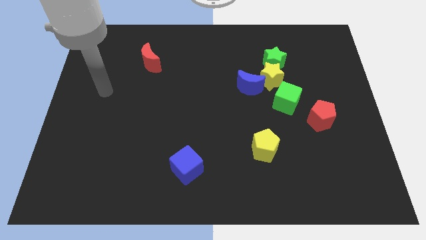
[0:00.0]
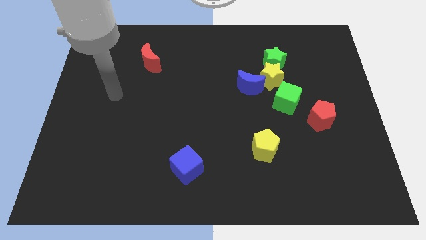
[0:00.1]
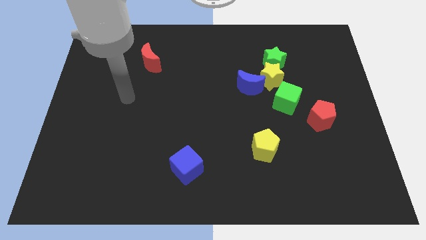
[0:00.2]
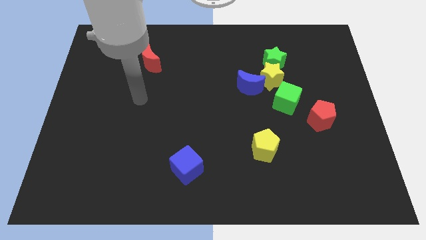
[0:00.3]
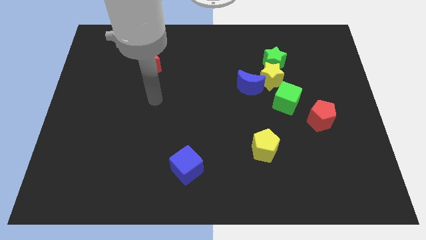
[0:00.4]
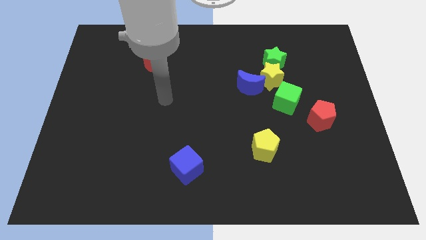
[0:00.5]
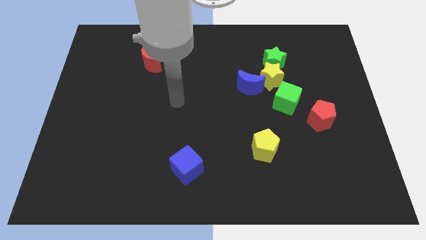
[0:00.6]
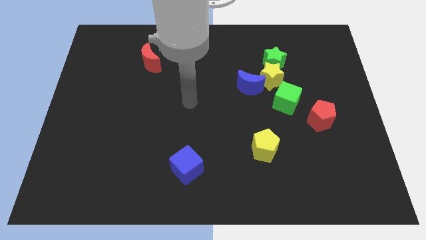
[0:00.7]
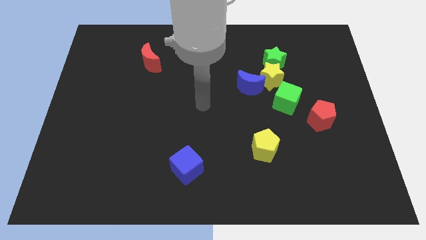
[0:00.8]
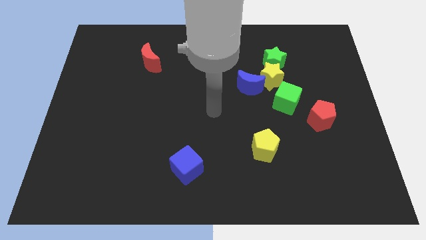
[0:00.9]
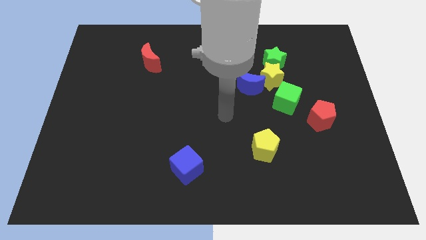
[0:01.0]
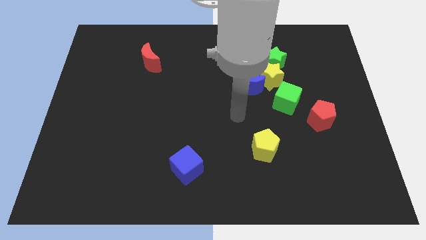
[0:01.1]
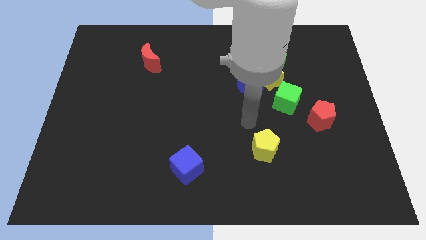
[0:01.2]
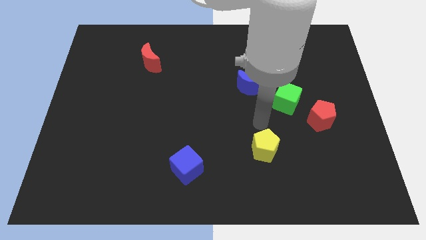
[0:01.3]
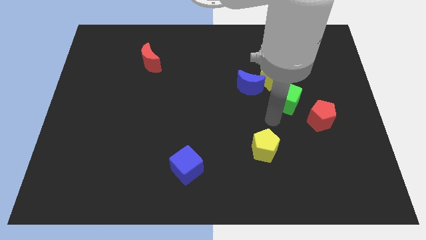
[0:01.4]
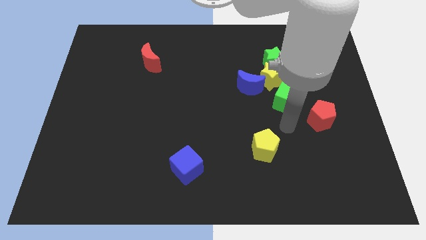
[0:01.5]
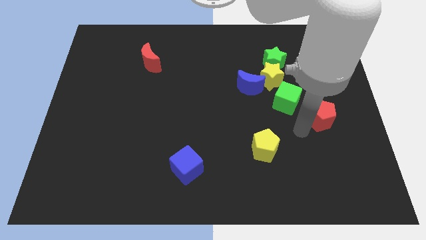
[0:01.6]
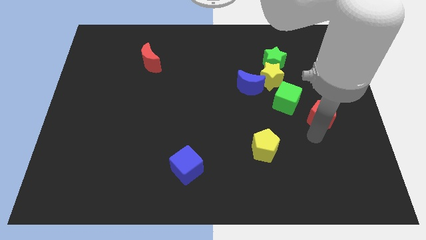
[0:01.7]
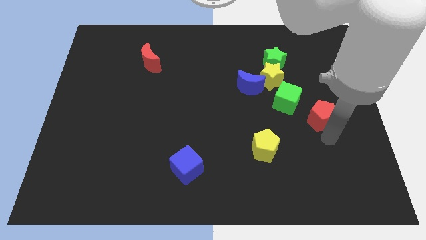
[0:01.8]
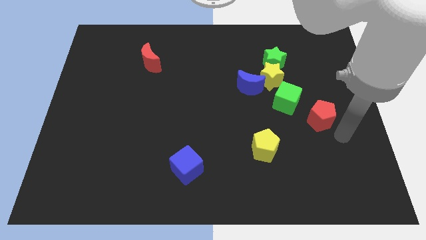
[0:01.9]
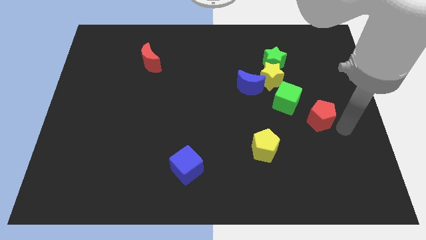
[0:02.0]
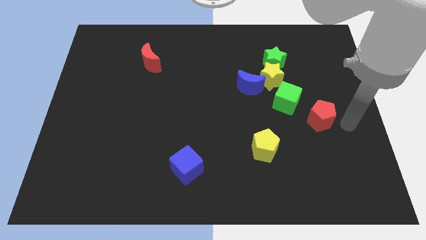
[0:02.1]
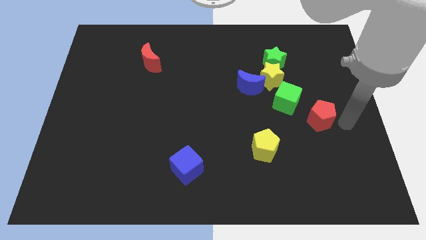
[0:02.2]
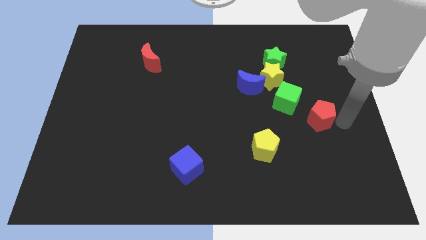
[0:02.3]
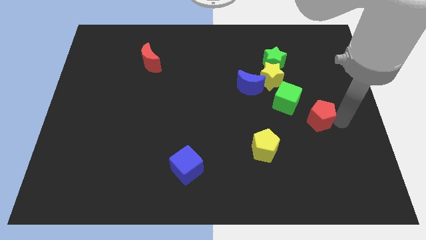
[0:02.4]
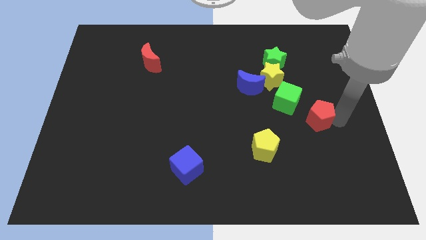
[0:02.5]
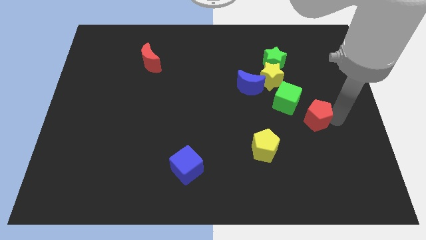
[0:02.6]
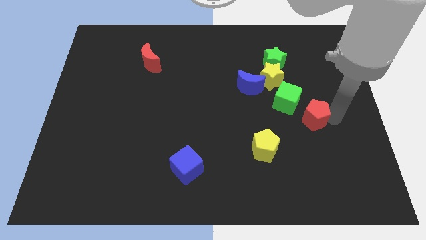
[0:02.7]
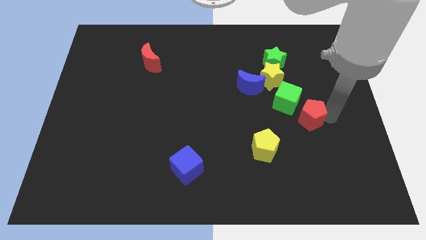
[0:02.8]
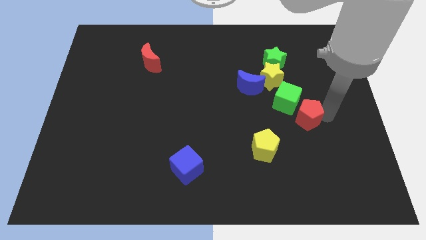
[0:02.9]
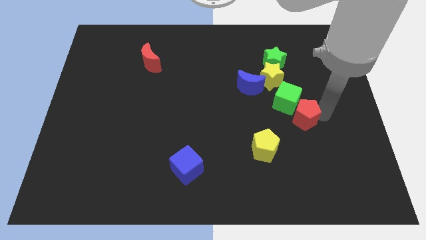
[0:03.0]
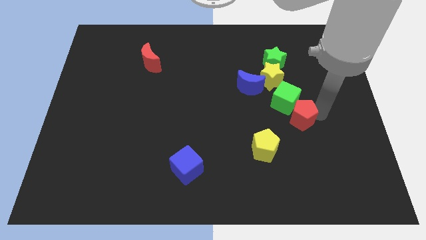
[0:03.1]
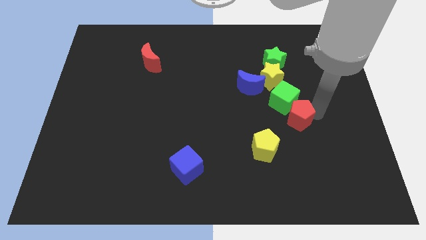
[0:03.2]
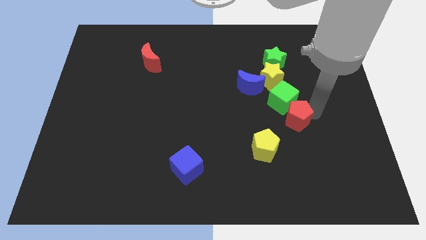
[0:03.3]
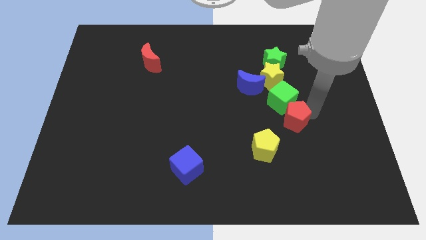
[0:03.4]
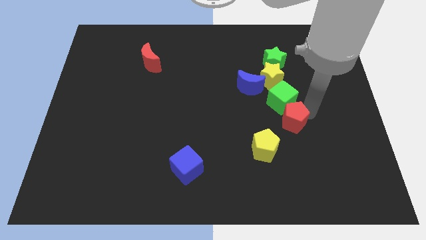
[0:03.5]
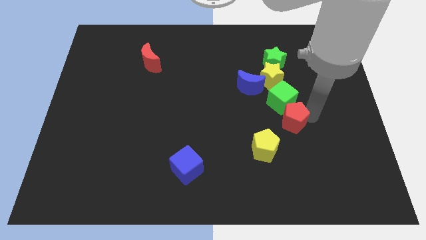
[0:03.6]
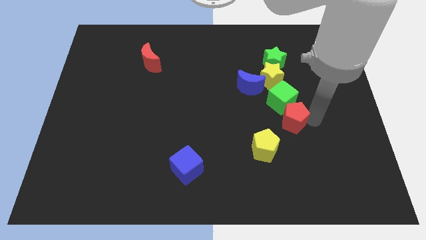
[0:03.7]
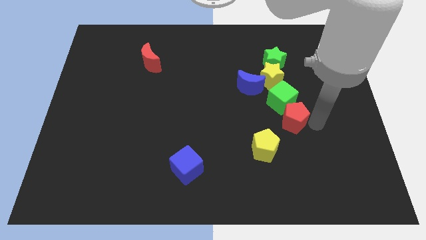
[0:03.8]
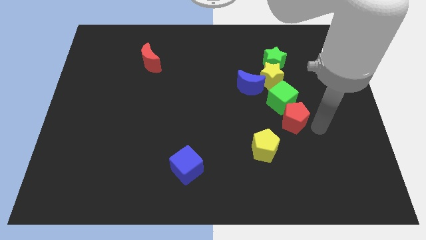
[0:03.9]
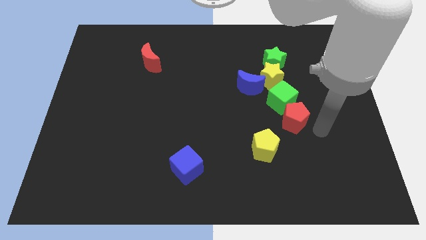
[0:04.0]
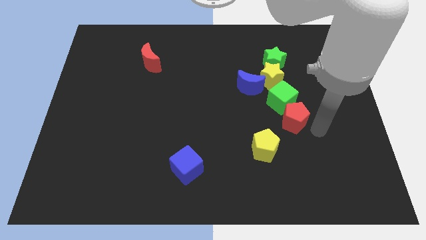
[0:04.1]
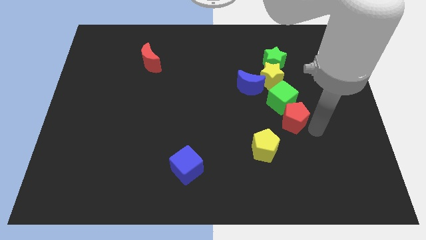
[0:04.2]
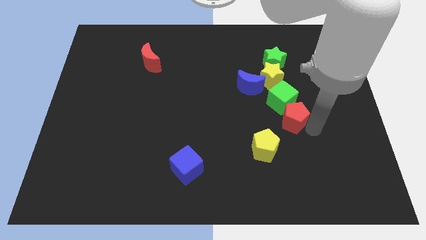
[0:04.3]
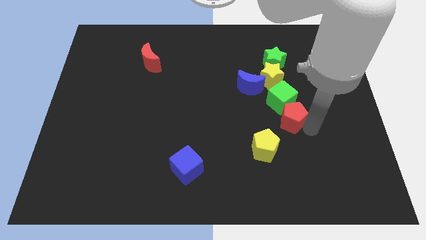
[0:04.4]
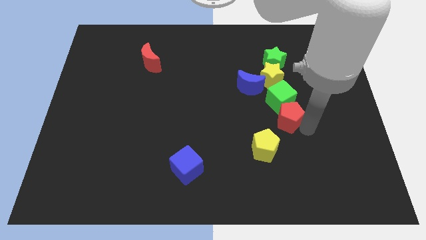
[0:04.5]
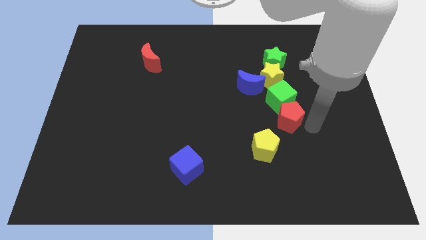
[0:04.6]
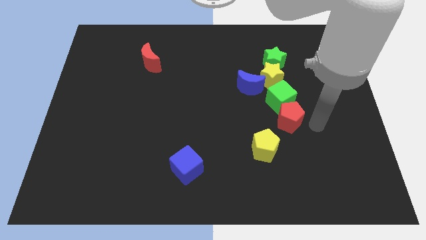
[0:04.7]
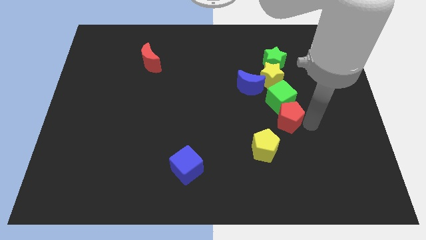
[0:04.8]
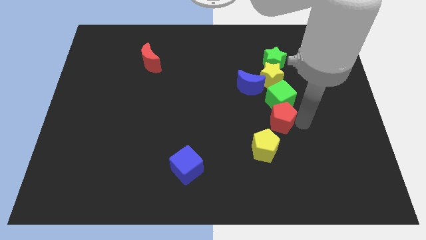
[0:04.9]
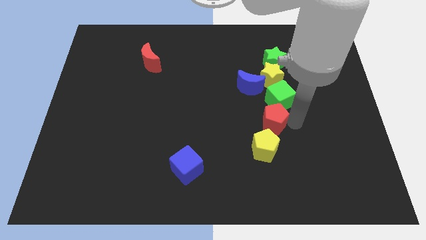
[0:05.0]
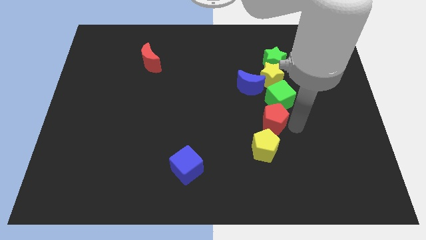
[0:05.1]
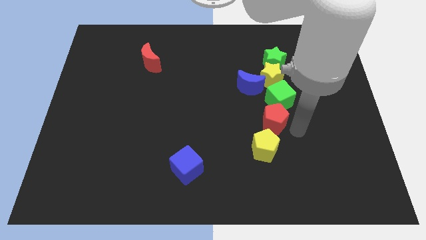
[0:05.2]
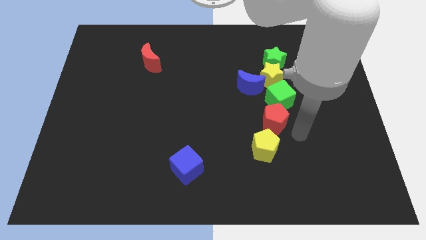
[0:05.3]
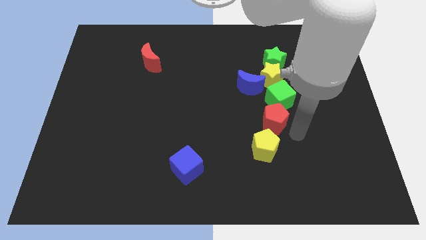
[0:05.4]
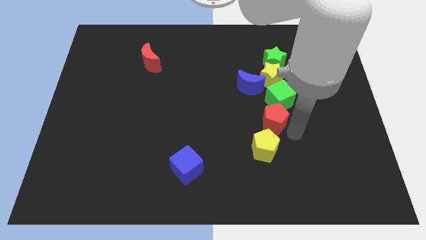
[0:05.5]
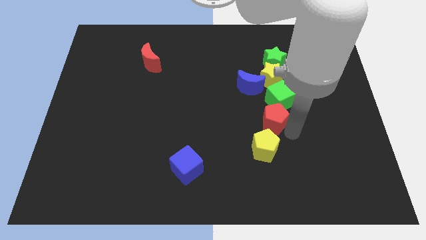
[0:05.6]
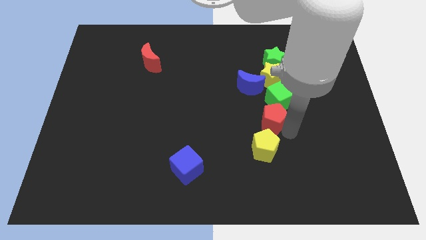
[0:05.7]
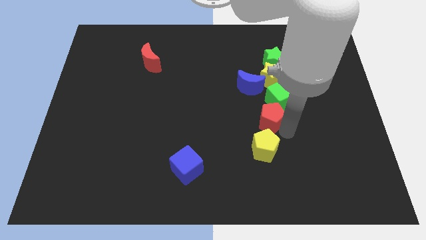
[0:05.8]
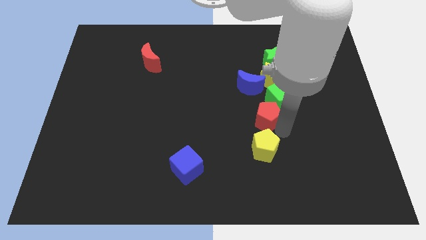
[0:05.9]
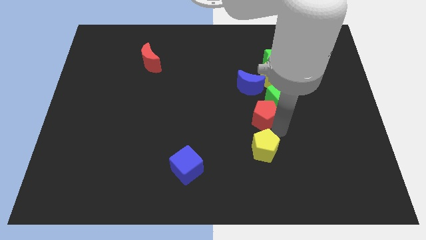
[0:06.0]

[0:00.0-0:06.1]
put the red pentagon to the middle
